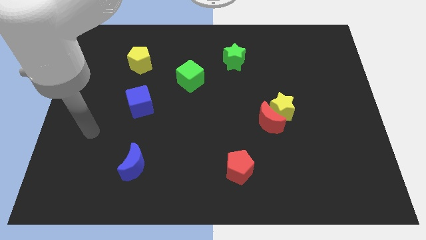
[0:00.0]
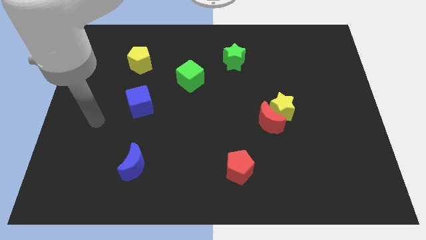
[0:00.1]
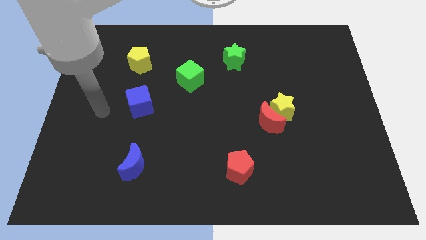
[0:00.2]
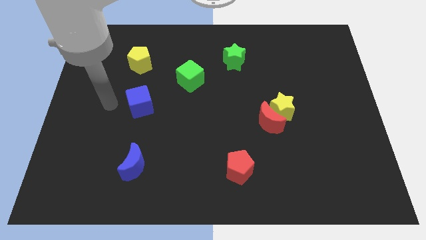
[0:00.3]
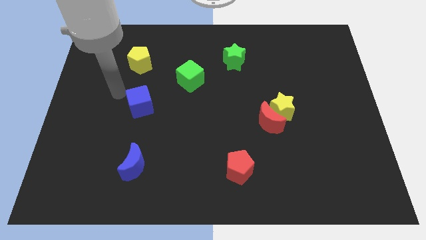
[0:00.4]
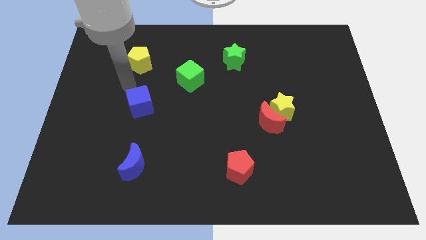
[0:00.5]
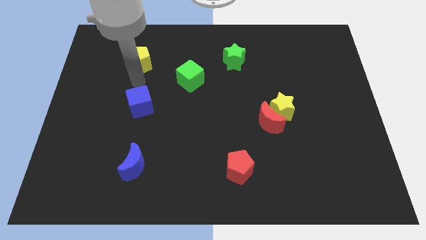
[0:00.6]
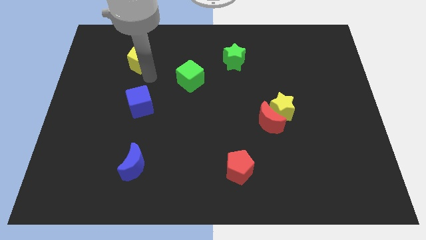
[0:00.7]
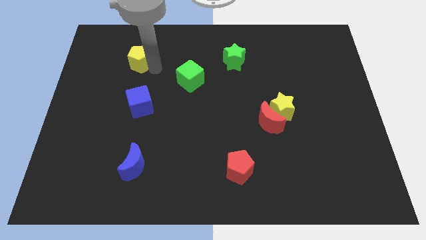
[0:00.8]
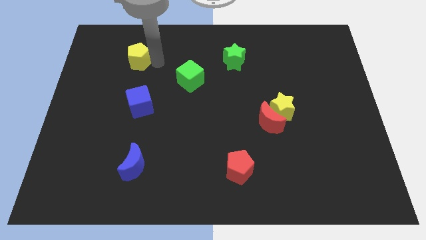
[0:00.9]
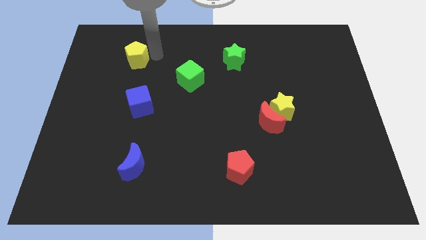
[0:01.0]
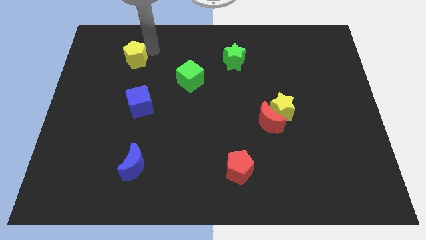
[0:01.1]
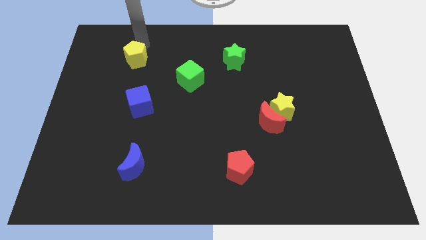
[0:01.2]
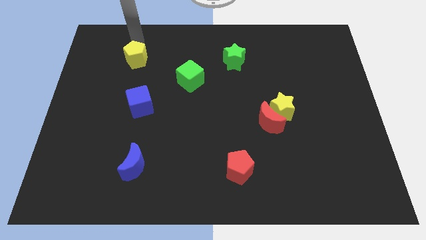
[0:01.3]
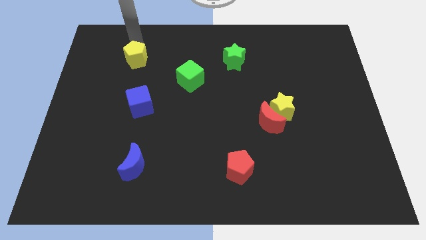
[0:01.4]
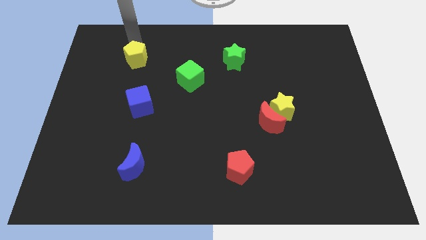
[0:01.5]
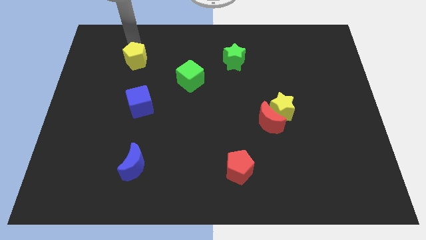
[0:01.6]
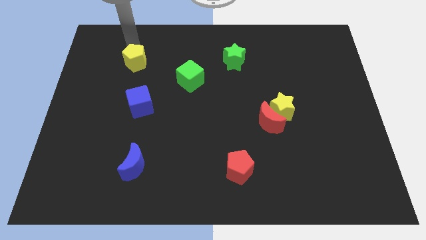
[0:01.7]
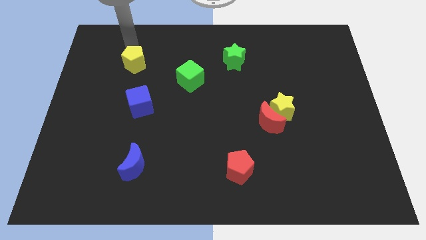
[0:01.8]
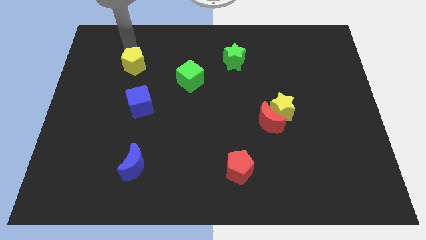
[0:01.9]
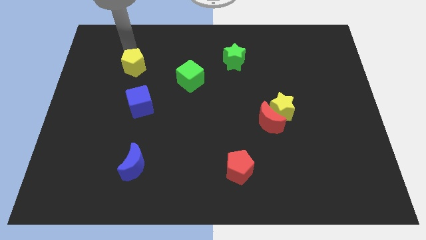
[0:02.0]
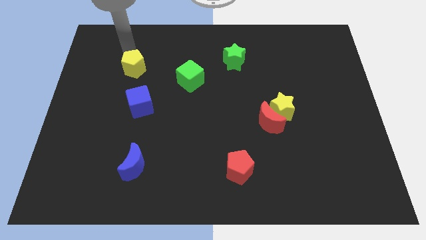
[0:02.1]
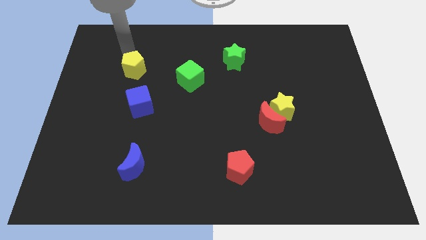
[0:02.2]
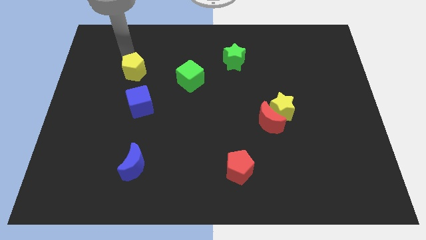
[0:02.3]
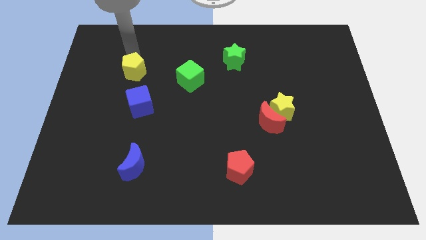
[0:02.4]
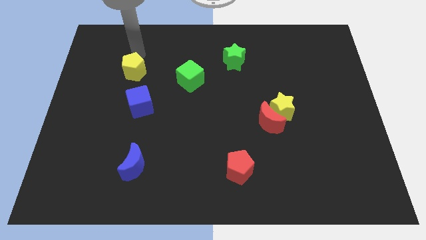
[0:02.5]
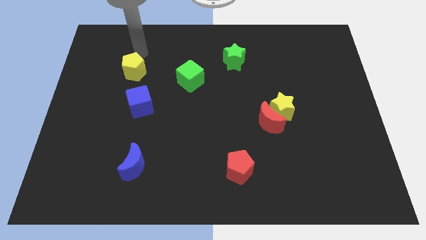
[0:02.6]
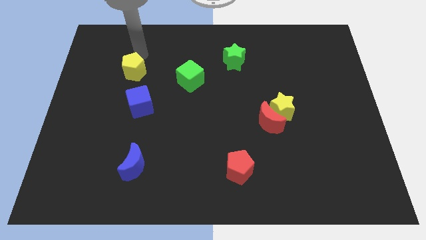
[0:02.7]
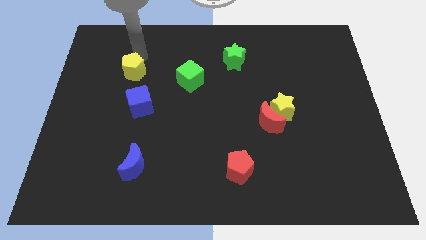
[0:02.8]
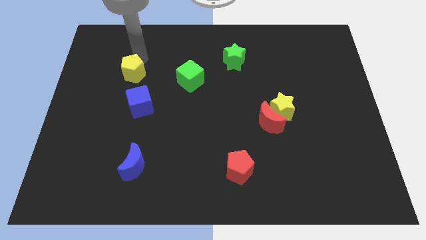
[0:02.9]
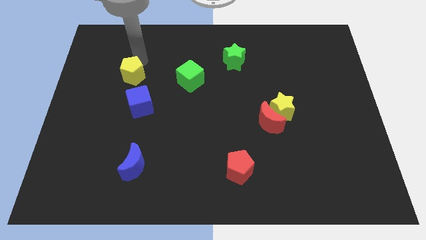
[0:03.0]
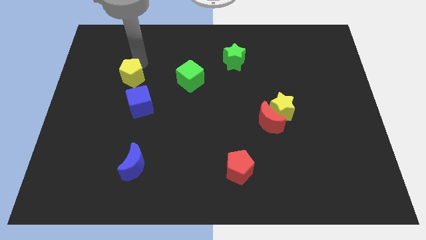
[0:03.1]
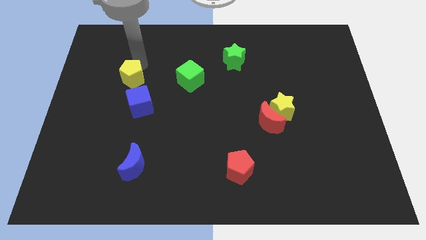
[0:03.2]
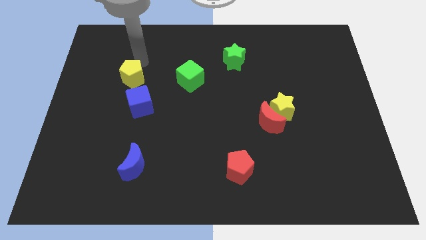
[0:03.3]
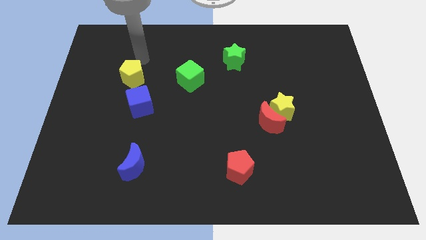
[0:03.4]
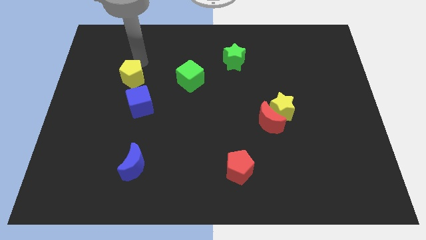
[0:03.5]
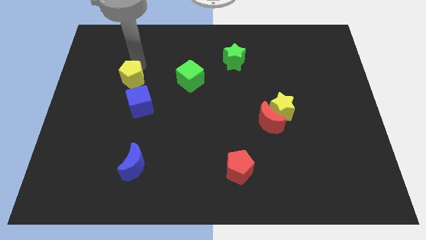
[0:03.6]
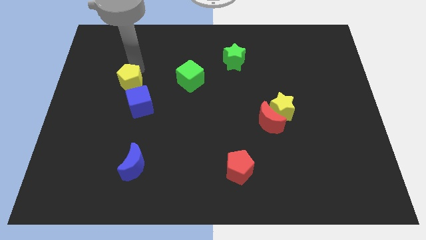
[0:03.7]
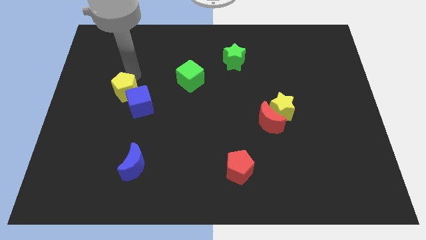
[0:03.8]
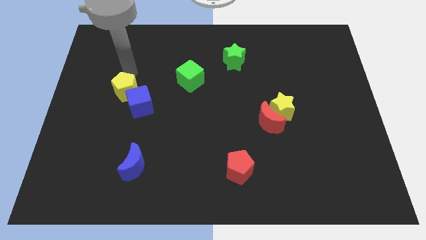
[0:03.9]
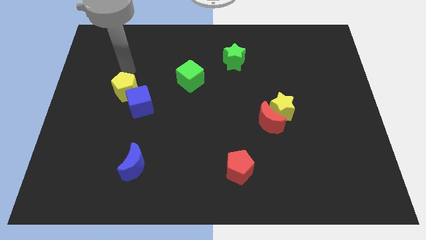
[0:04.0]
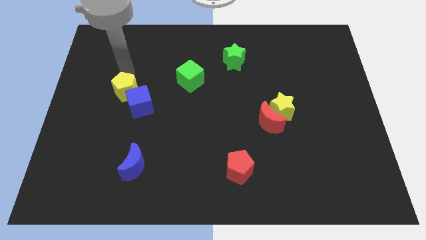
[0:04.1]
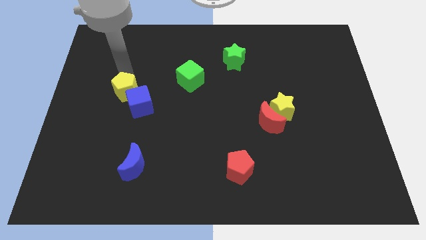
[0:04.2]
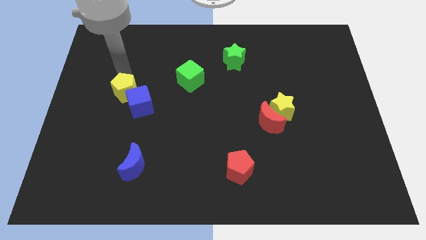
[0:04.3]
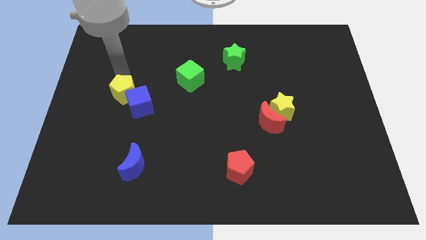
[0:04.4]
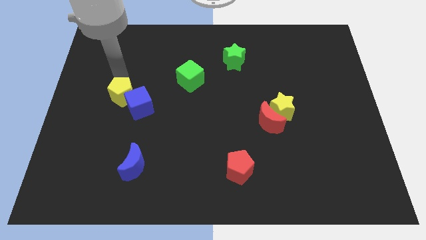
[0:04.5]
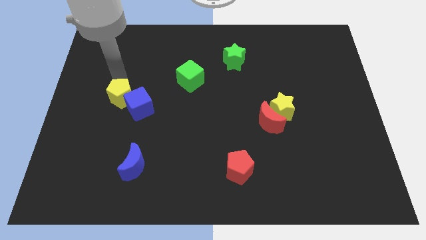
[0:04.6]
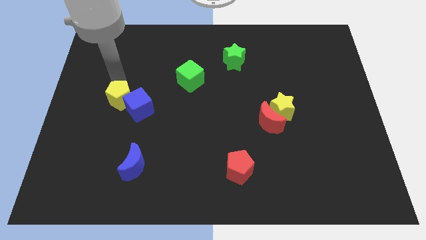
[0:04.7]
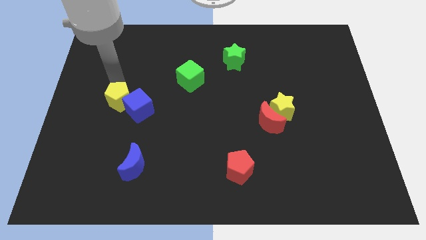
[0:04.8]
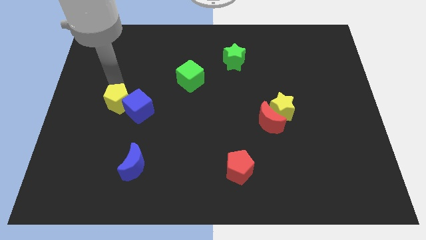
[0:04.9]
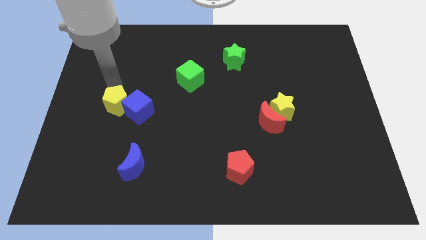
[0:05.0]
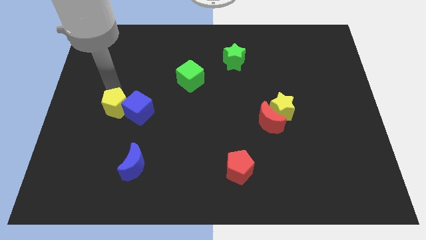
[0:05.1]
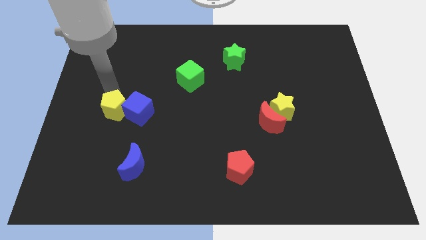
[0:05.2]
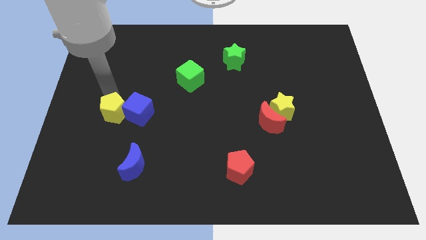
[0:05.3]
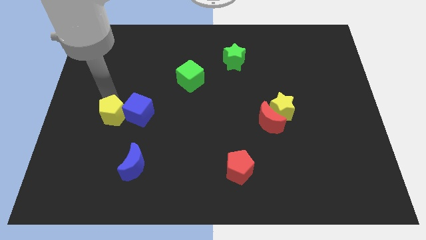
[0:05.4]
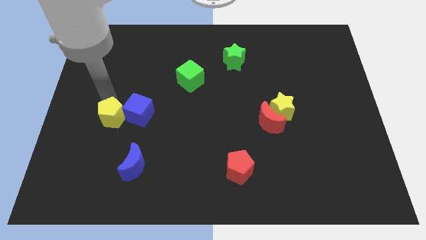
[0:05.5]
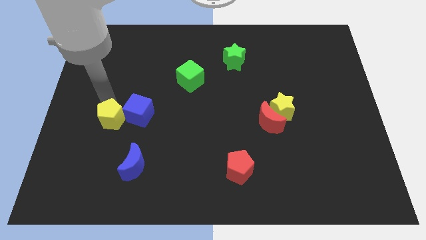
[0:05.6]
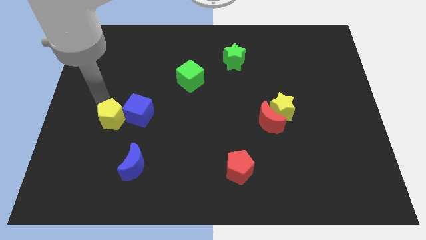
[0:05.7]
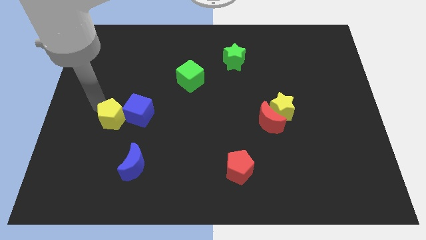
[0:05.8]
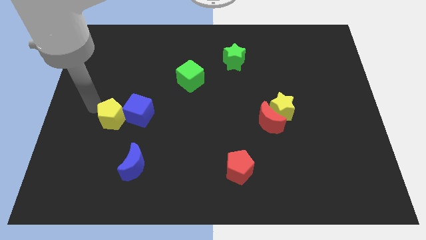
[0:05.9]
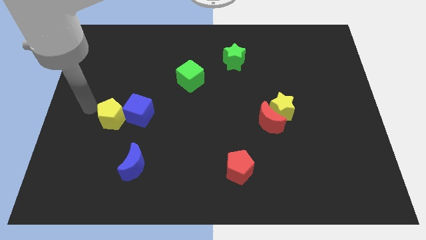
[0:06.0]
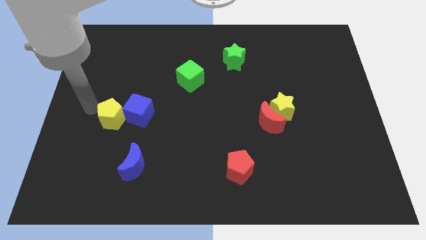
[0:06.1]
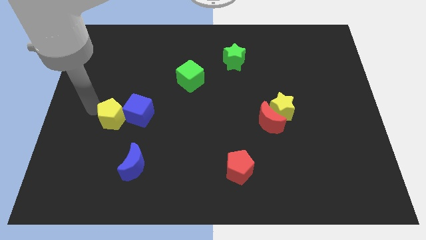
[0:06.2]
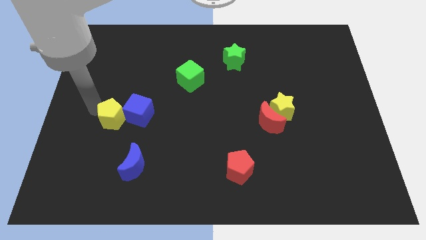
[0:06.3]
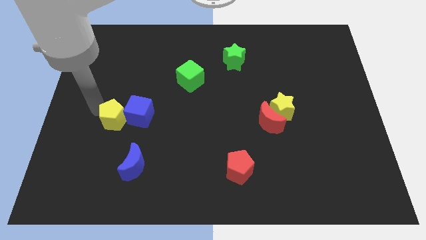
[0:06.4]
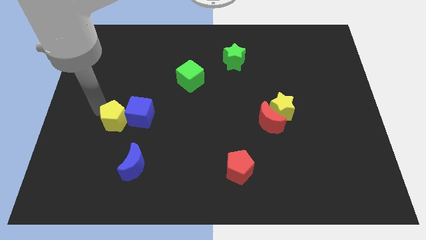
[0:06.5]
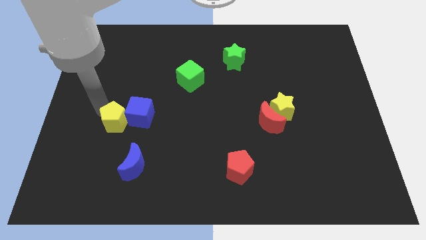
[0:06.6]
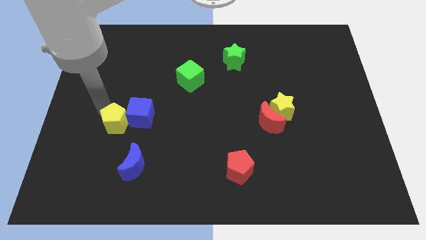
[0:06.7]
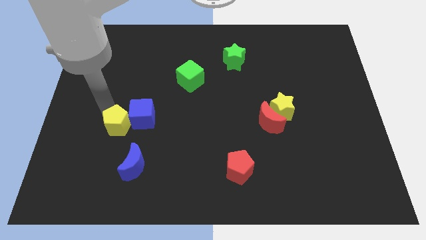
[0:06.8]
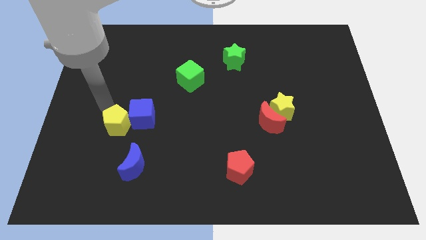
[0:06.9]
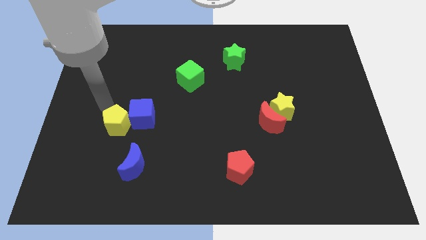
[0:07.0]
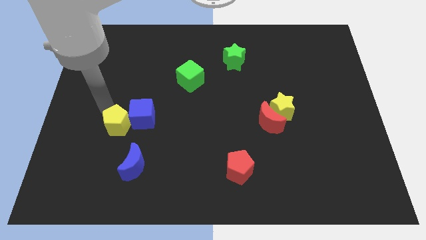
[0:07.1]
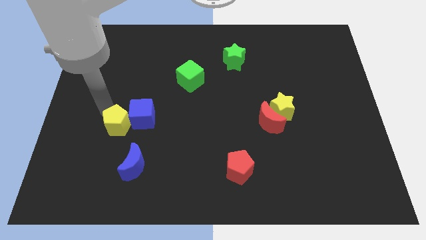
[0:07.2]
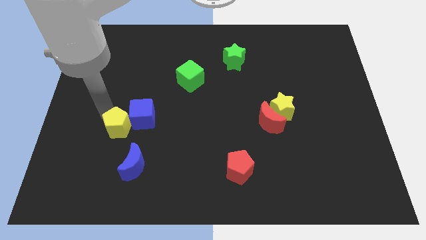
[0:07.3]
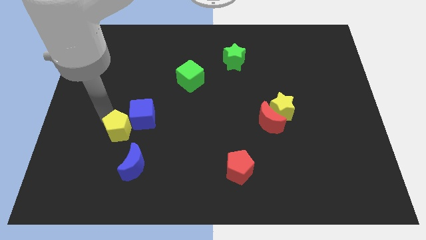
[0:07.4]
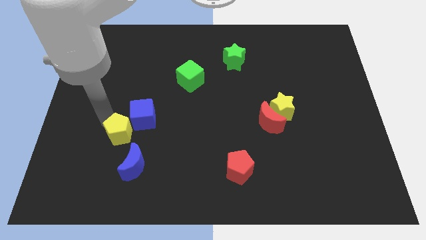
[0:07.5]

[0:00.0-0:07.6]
put the yellow pentagon below the blue cube
